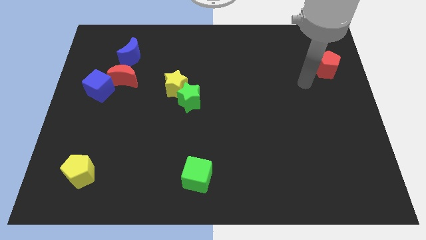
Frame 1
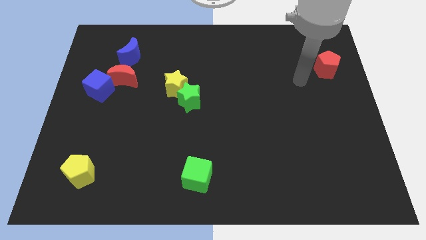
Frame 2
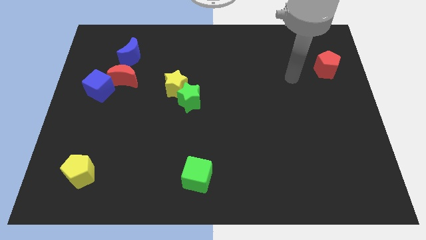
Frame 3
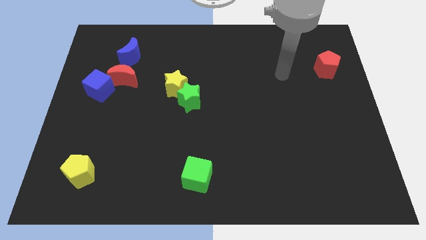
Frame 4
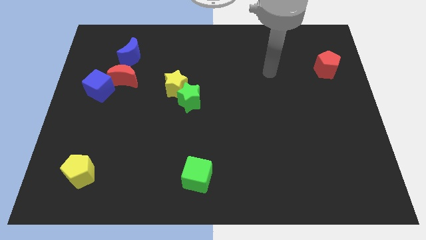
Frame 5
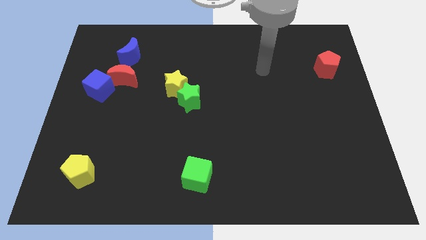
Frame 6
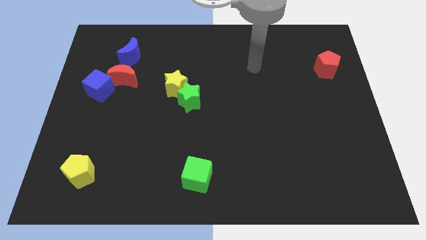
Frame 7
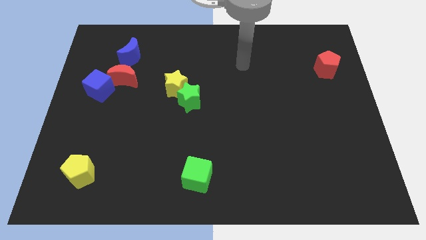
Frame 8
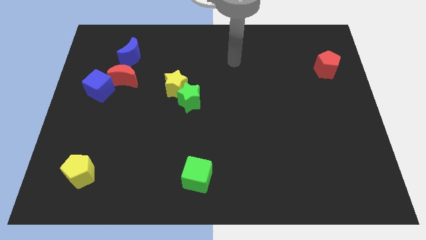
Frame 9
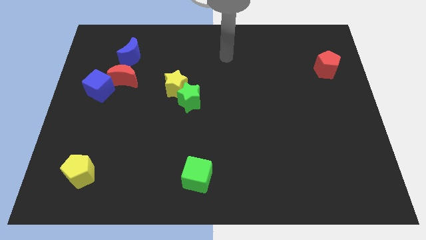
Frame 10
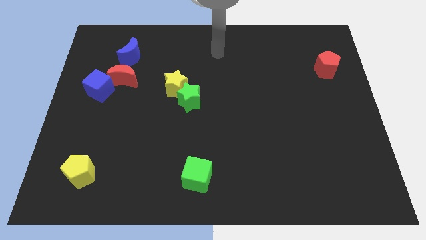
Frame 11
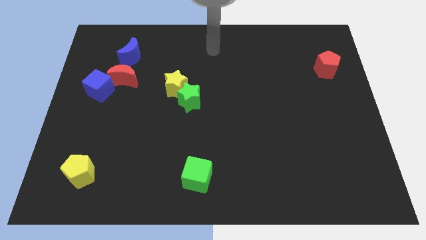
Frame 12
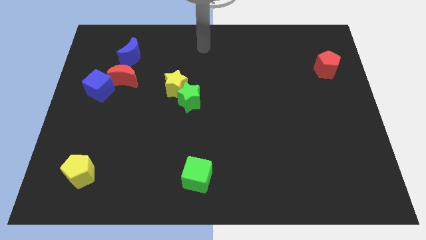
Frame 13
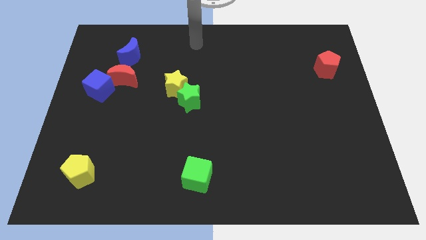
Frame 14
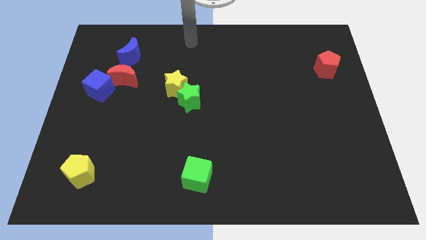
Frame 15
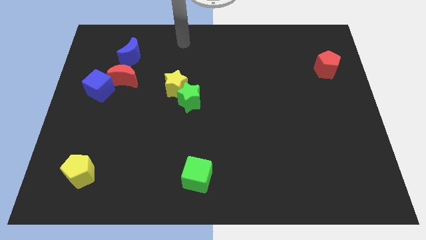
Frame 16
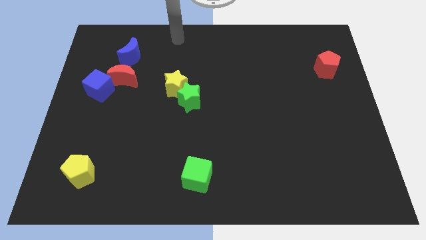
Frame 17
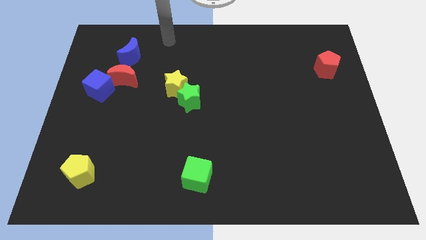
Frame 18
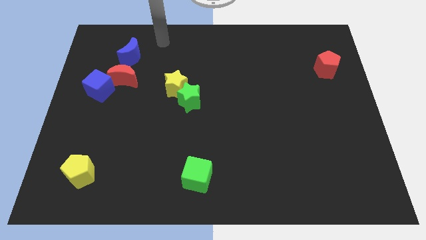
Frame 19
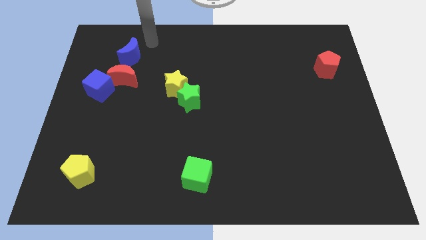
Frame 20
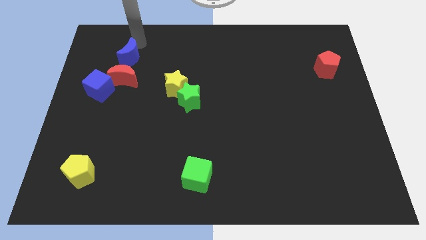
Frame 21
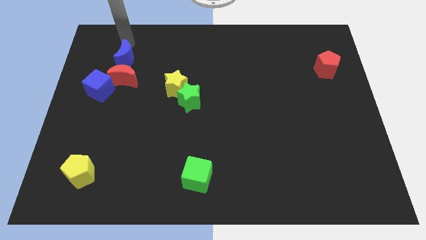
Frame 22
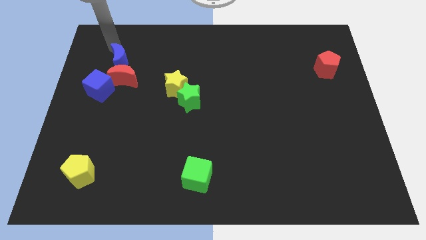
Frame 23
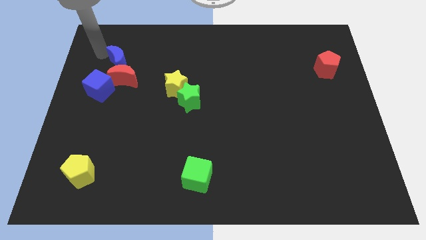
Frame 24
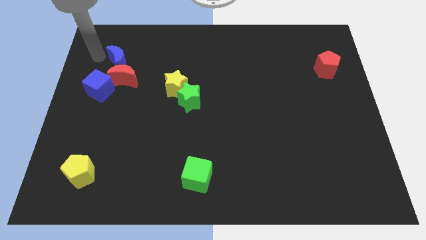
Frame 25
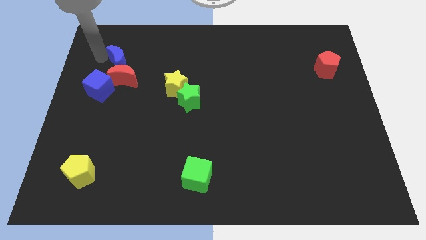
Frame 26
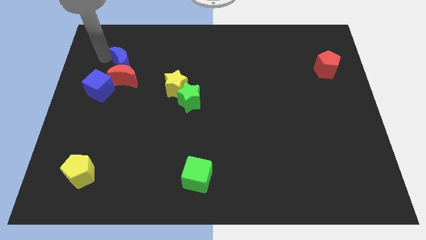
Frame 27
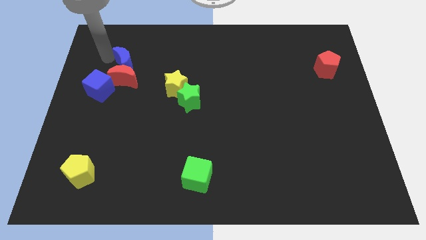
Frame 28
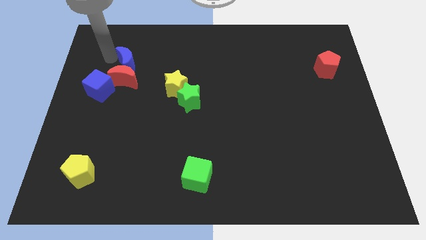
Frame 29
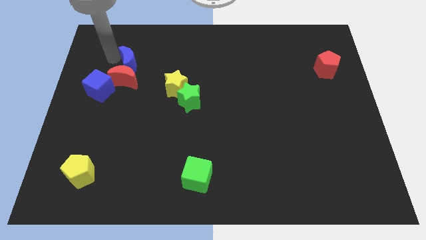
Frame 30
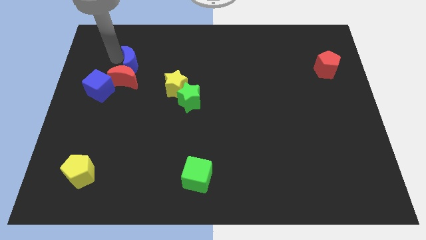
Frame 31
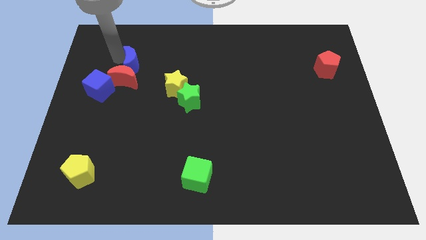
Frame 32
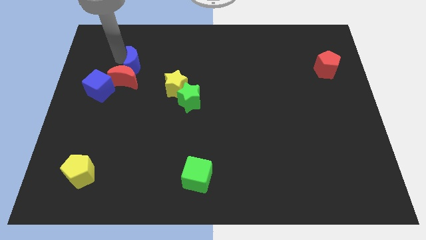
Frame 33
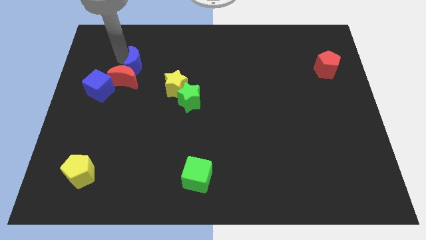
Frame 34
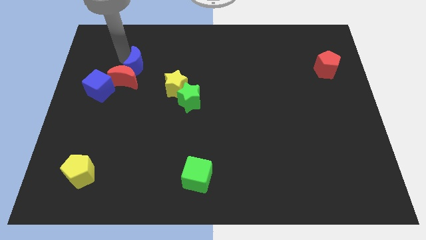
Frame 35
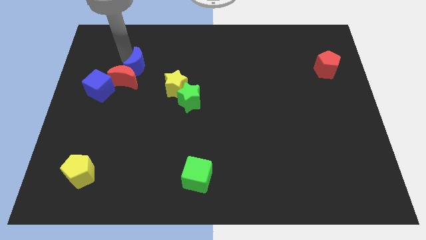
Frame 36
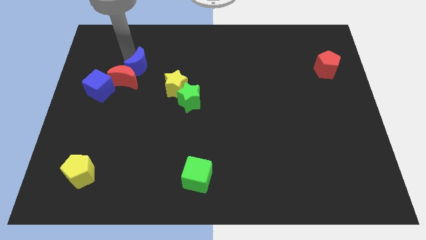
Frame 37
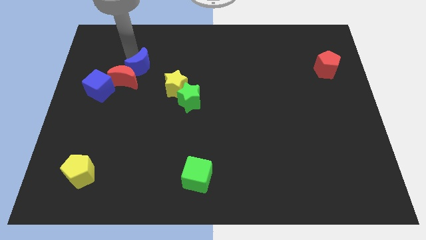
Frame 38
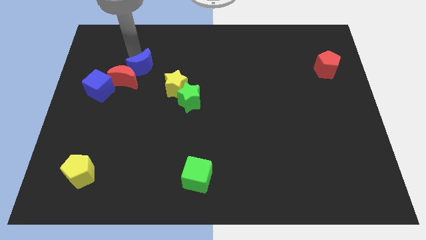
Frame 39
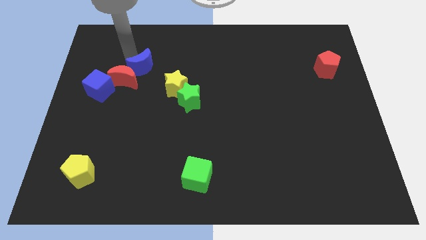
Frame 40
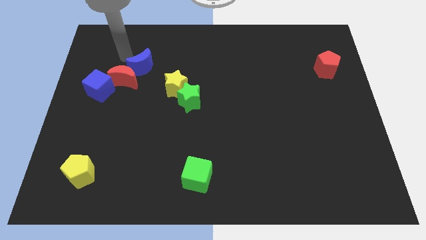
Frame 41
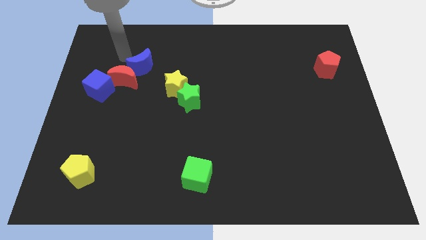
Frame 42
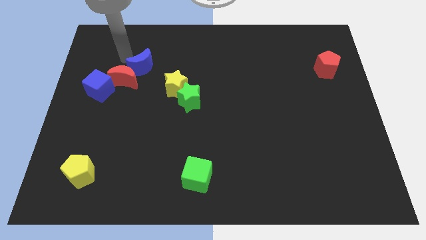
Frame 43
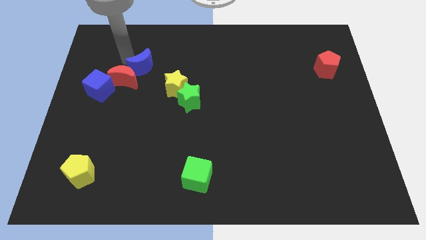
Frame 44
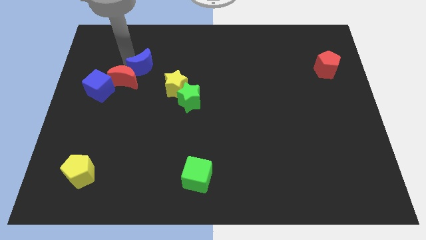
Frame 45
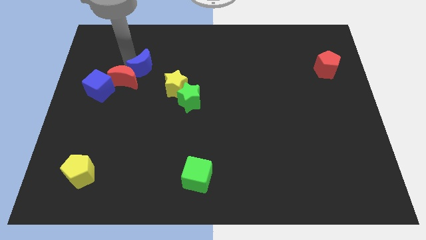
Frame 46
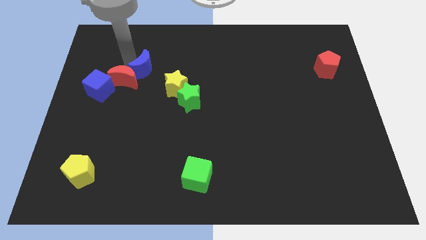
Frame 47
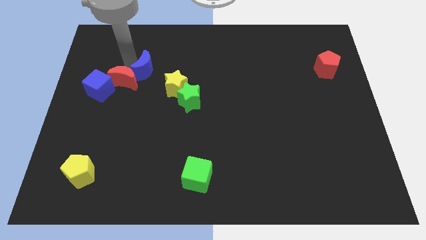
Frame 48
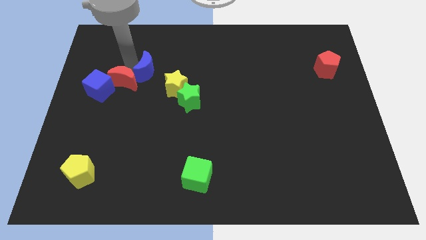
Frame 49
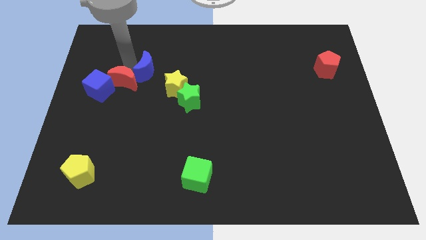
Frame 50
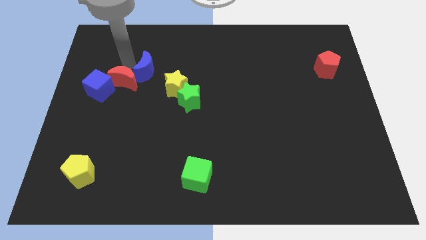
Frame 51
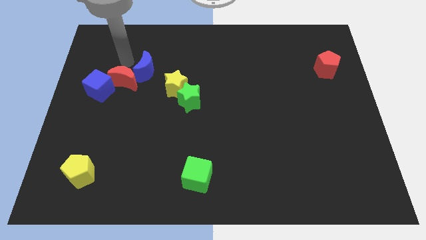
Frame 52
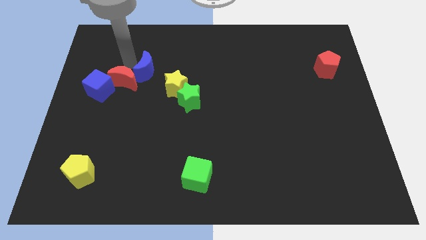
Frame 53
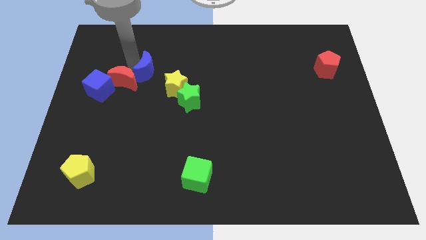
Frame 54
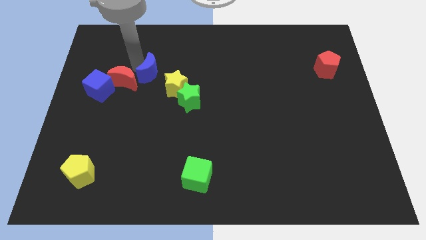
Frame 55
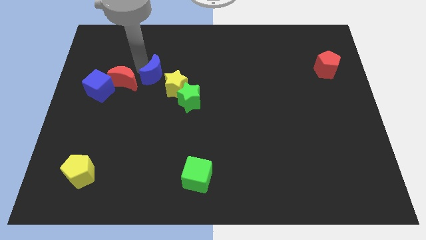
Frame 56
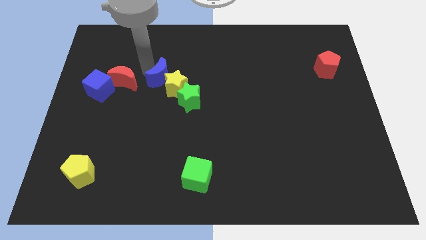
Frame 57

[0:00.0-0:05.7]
push the blue moon close to the yellow star

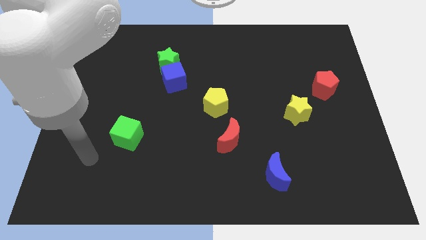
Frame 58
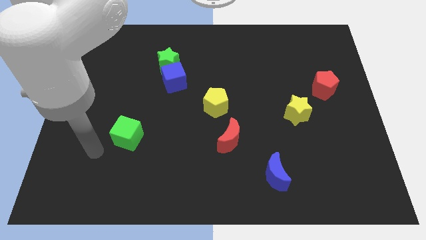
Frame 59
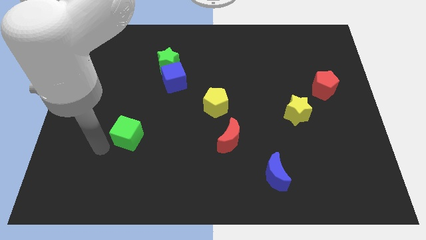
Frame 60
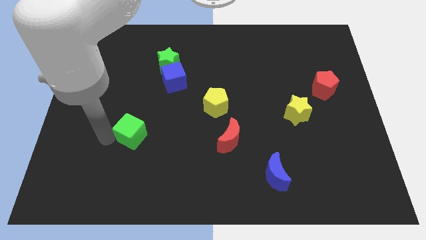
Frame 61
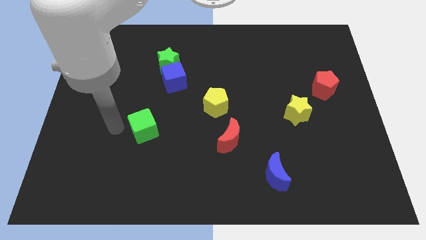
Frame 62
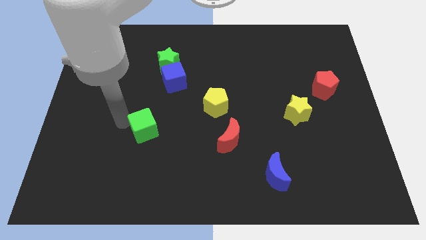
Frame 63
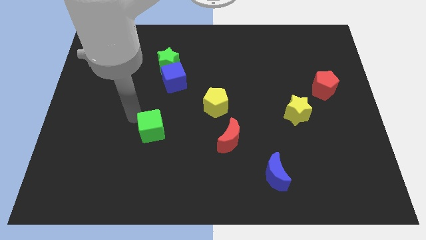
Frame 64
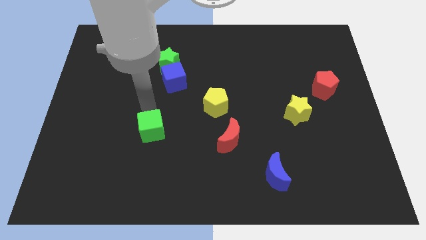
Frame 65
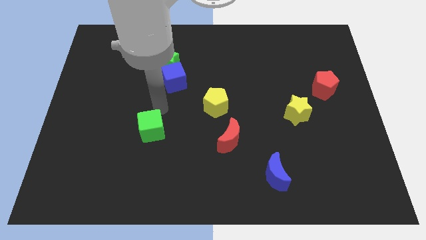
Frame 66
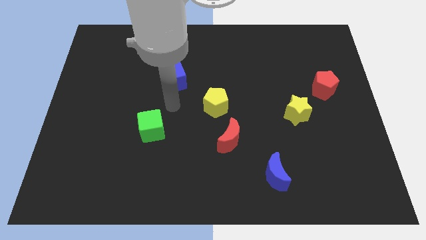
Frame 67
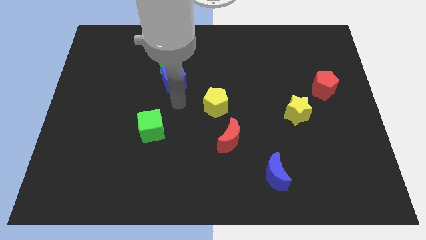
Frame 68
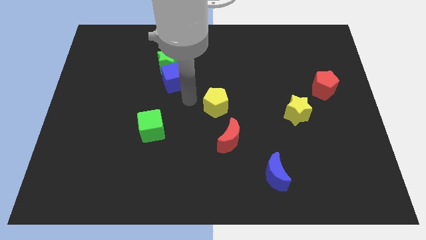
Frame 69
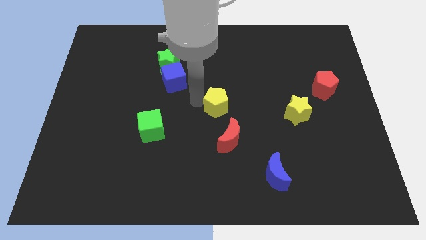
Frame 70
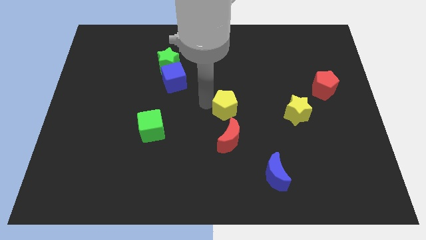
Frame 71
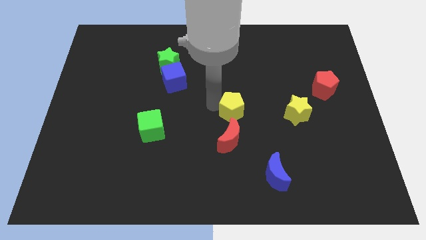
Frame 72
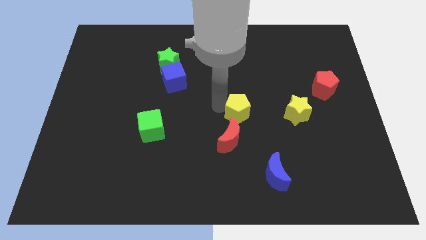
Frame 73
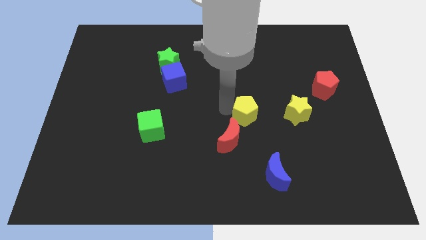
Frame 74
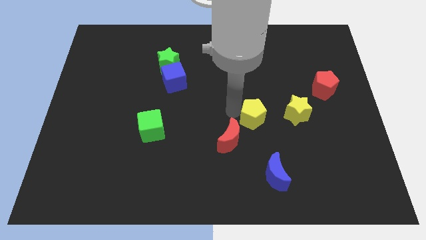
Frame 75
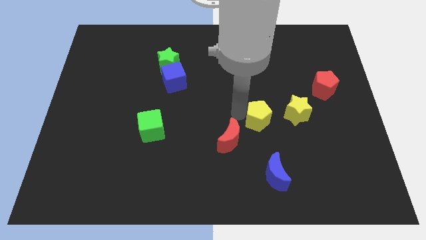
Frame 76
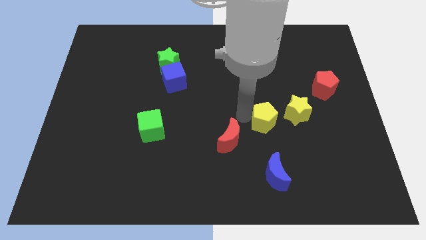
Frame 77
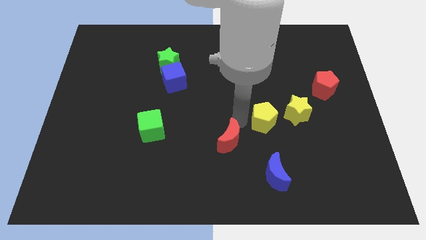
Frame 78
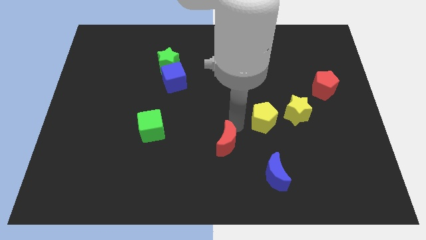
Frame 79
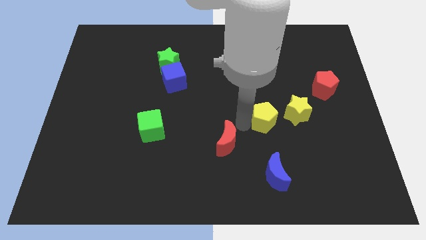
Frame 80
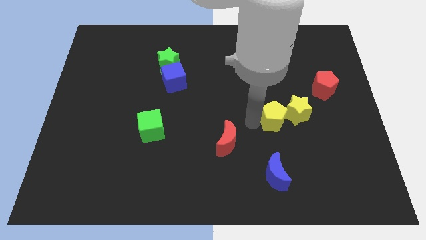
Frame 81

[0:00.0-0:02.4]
put the yellow pentagon close to the yellow star
